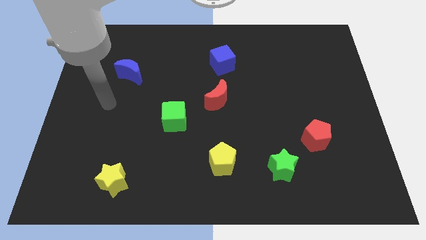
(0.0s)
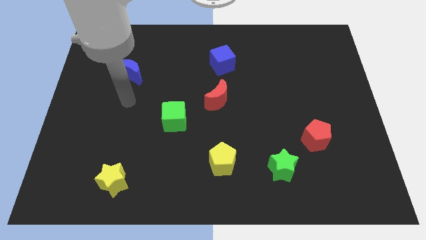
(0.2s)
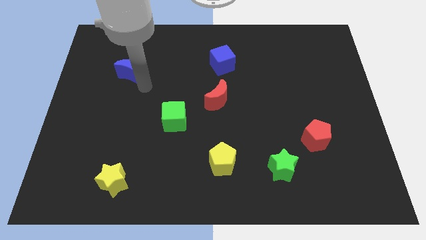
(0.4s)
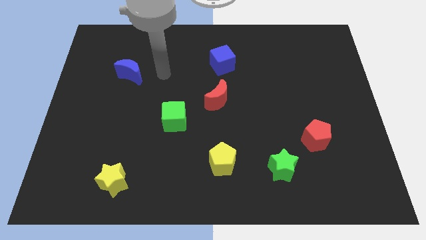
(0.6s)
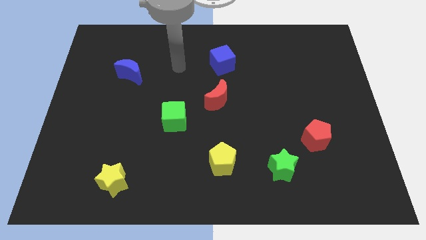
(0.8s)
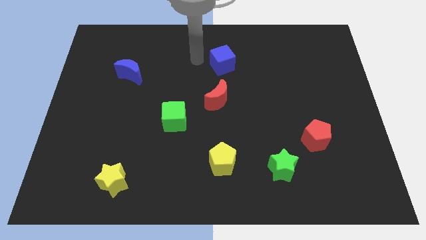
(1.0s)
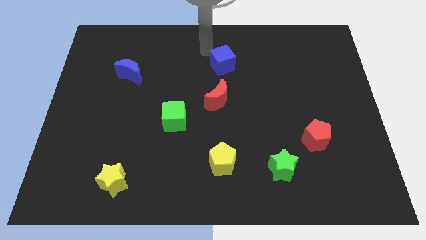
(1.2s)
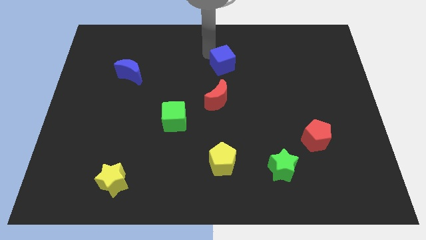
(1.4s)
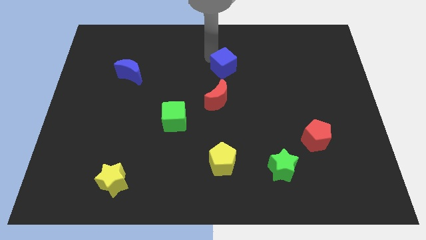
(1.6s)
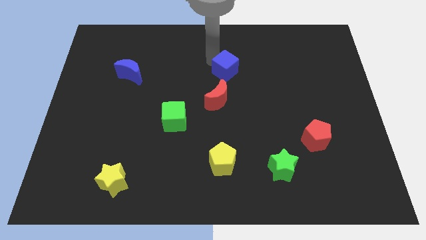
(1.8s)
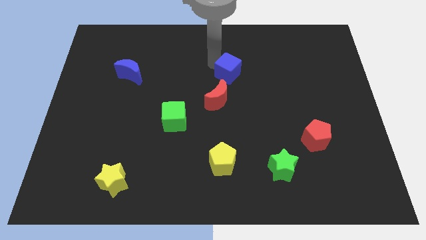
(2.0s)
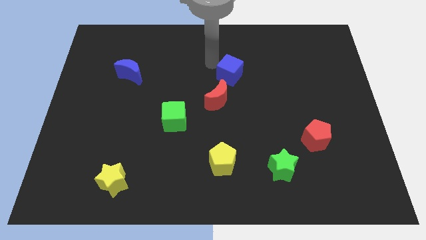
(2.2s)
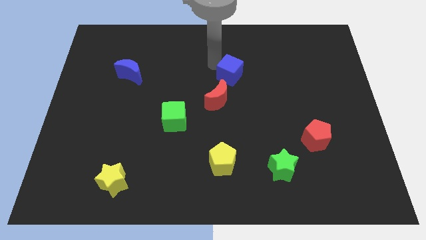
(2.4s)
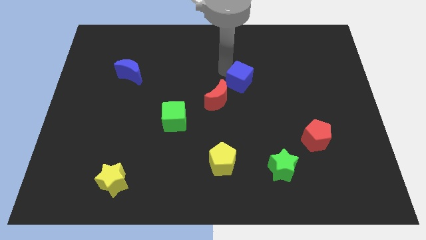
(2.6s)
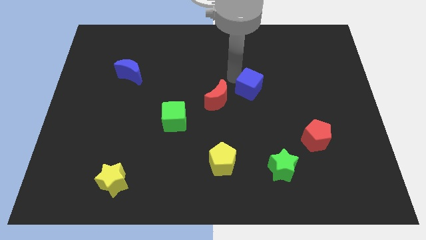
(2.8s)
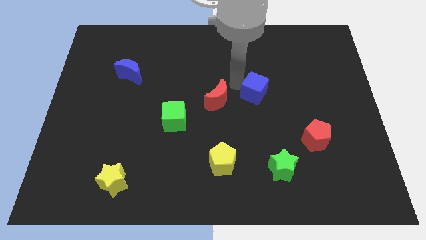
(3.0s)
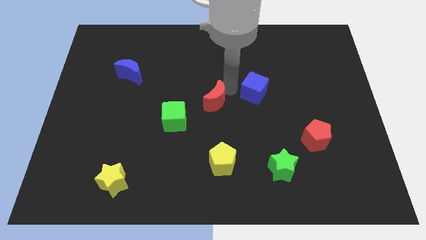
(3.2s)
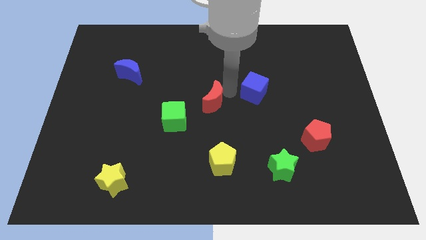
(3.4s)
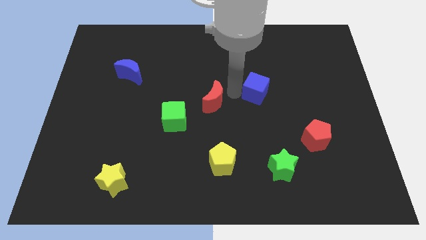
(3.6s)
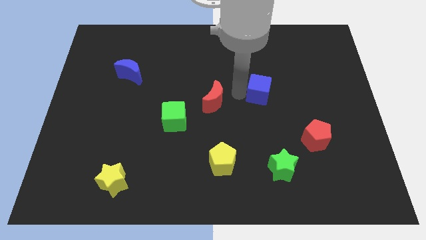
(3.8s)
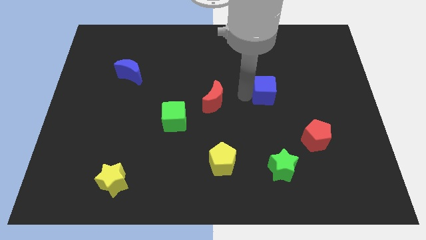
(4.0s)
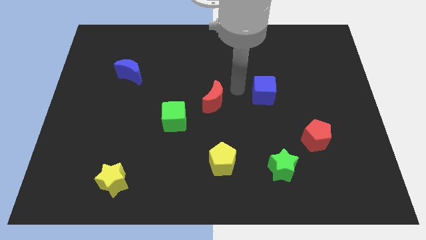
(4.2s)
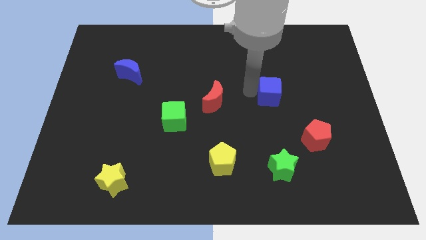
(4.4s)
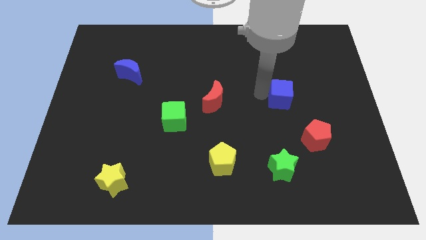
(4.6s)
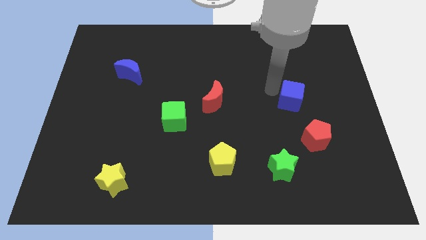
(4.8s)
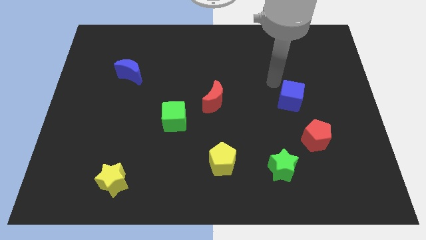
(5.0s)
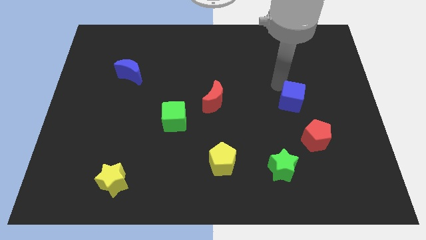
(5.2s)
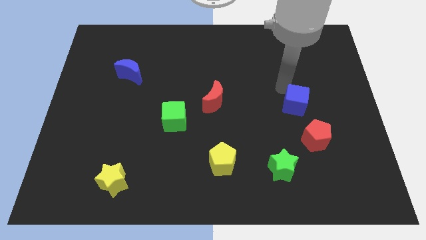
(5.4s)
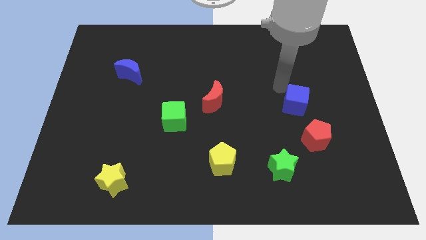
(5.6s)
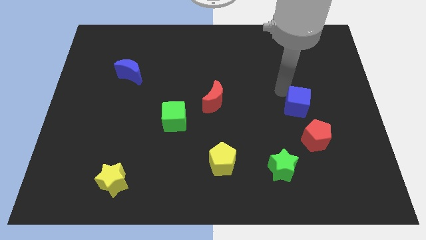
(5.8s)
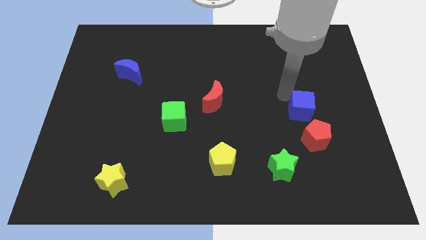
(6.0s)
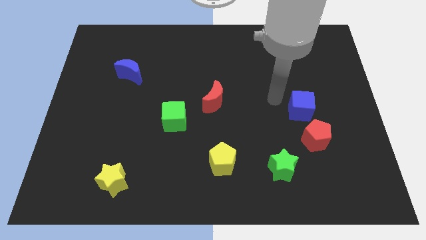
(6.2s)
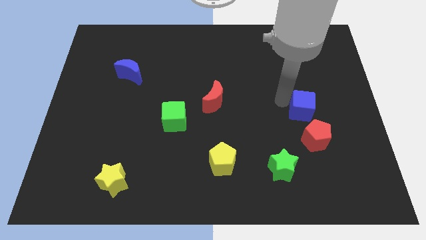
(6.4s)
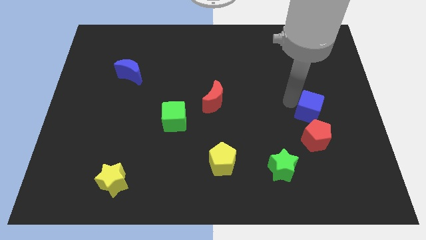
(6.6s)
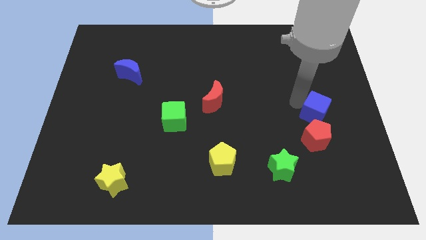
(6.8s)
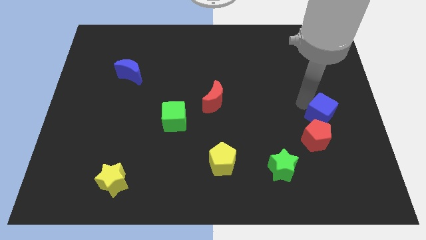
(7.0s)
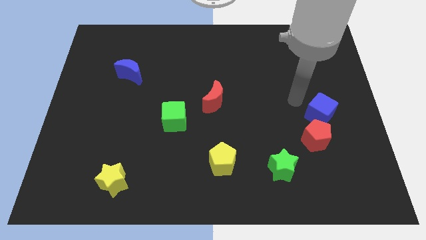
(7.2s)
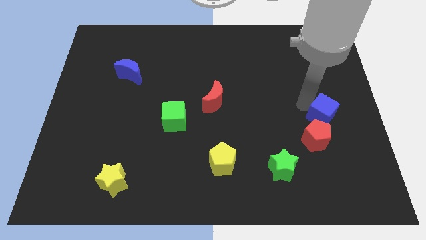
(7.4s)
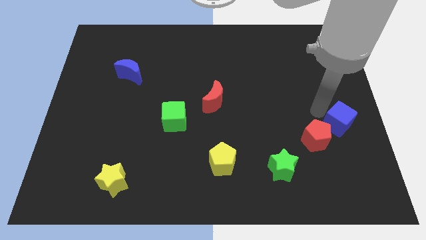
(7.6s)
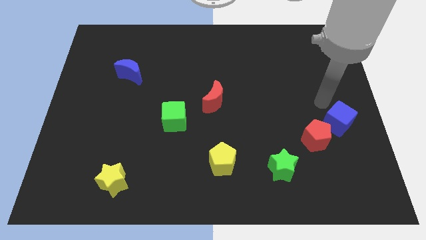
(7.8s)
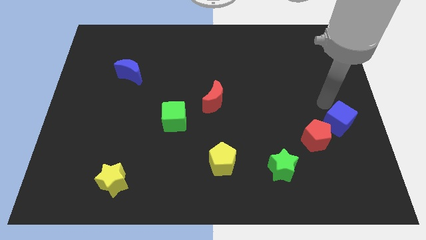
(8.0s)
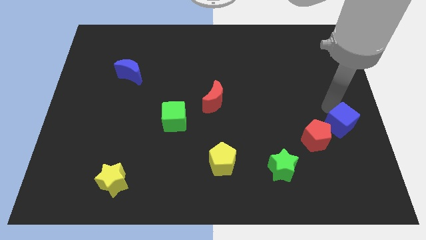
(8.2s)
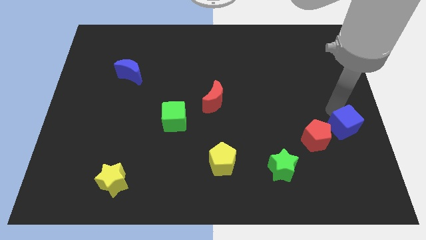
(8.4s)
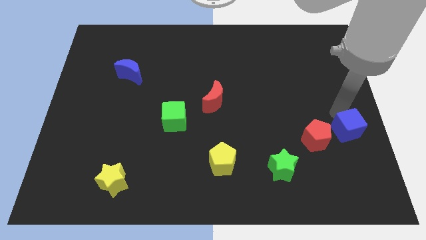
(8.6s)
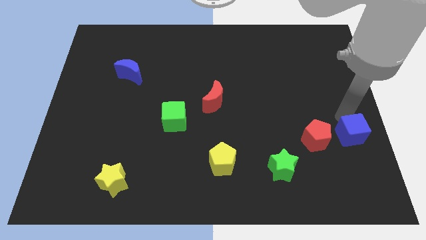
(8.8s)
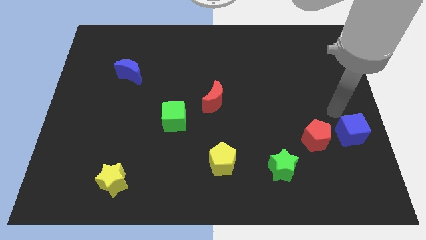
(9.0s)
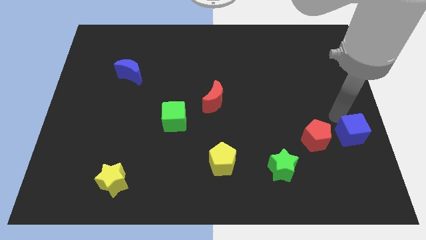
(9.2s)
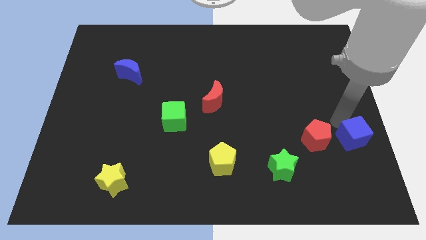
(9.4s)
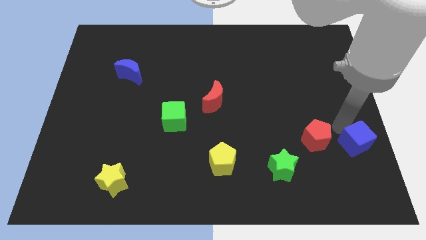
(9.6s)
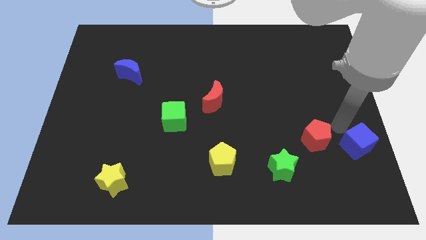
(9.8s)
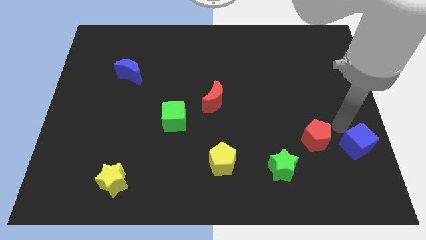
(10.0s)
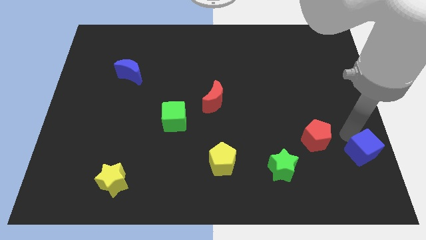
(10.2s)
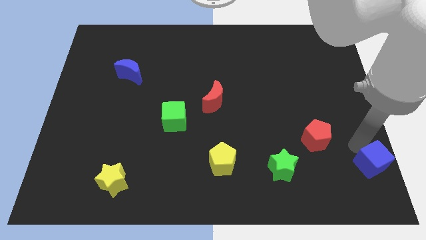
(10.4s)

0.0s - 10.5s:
put the blue cube to the bottom right
